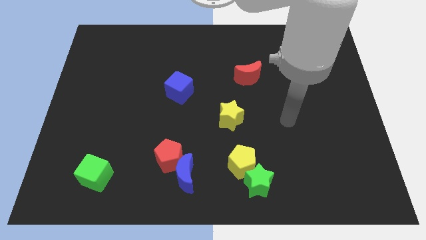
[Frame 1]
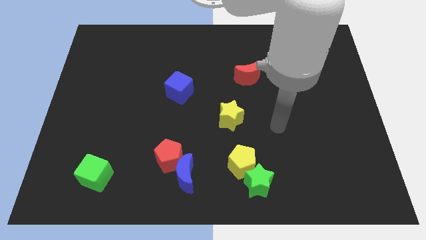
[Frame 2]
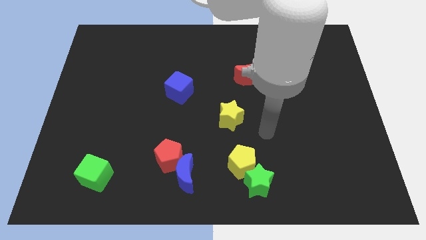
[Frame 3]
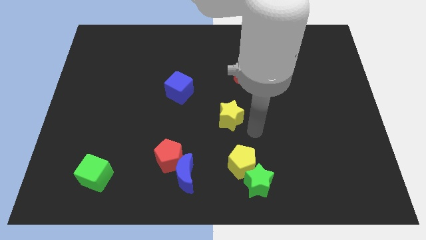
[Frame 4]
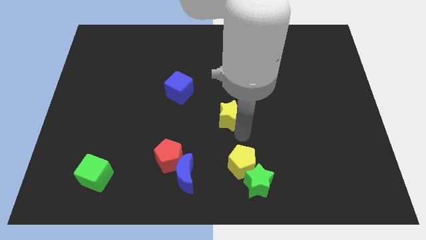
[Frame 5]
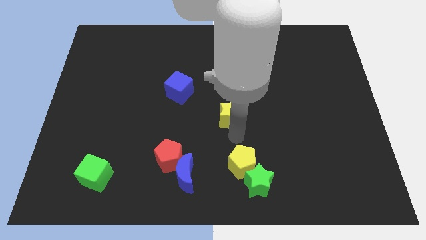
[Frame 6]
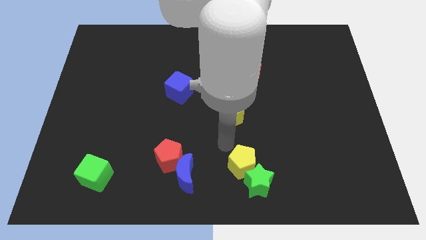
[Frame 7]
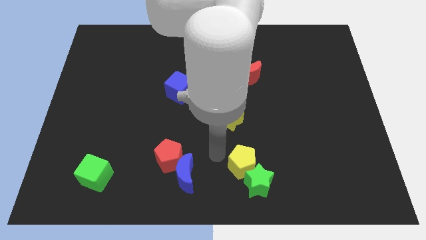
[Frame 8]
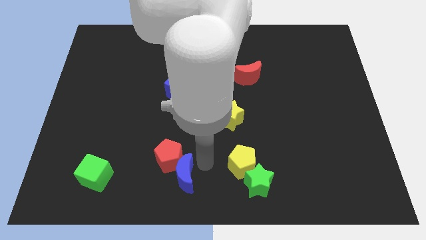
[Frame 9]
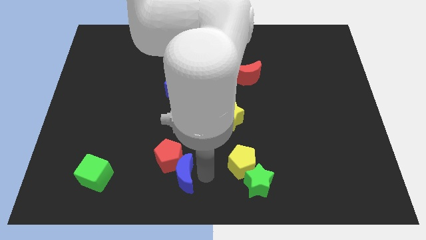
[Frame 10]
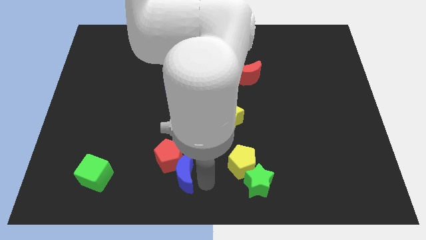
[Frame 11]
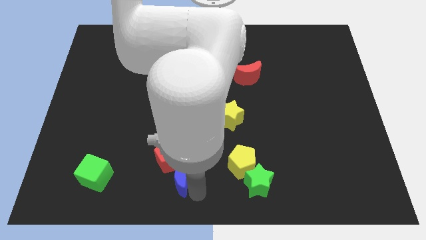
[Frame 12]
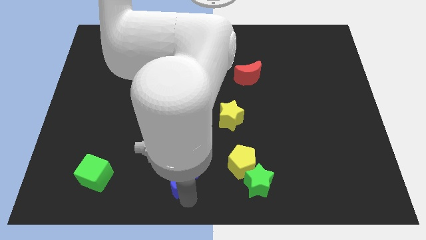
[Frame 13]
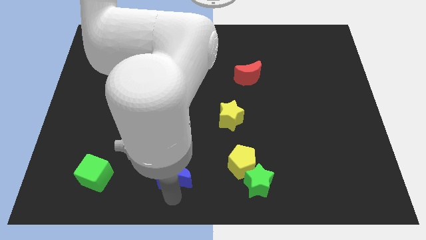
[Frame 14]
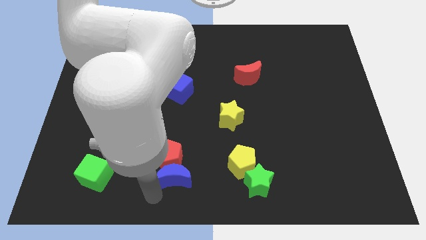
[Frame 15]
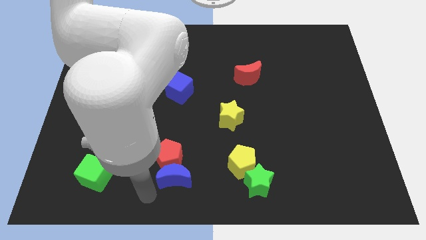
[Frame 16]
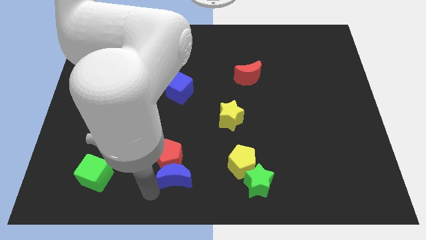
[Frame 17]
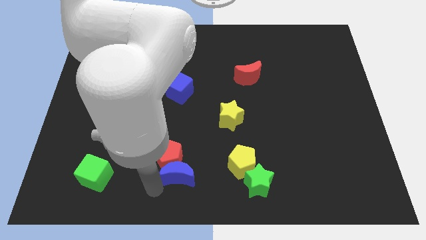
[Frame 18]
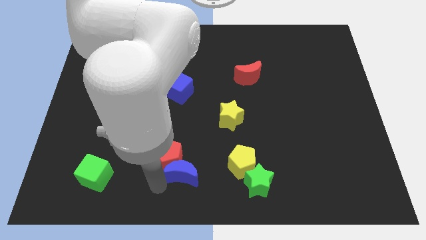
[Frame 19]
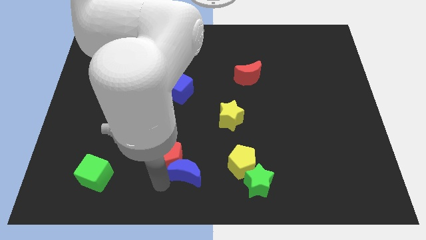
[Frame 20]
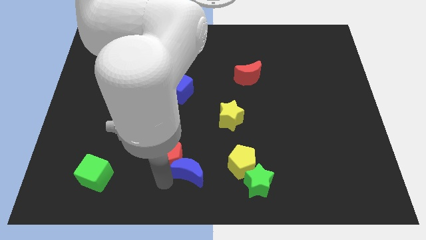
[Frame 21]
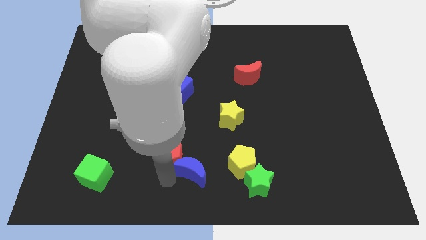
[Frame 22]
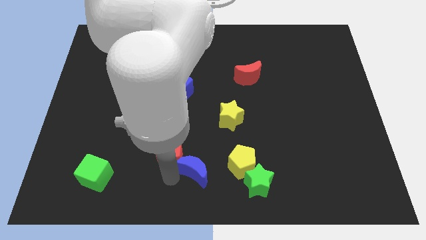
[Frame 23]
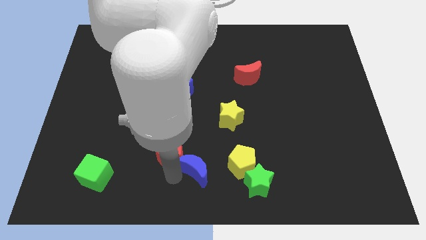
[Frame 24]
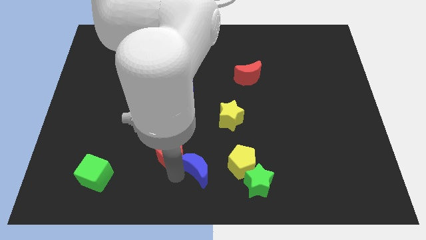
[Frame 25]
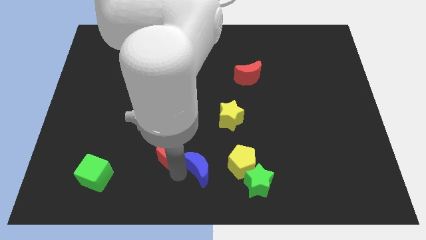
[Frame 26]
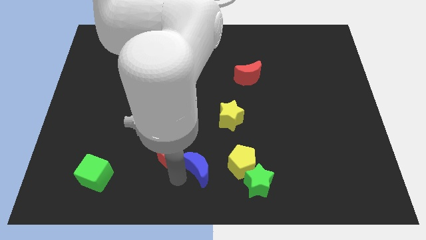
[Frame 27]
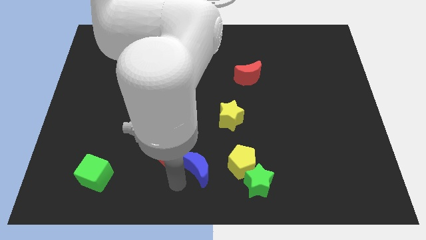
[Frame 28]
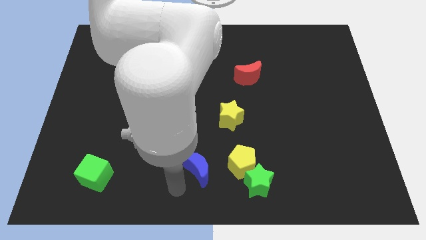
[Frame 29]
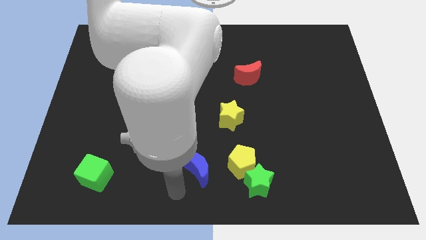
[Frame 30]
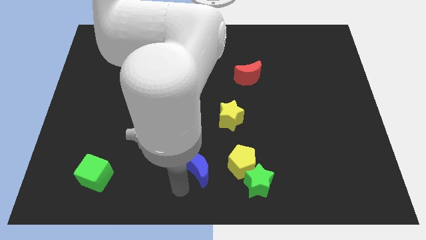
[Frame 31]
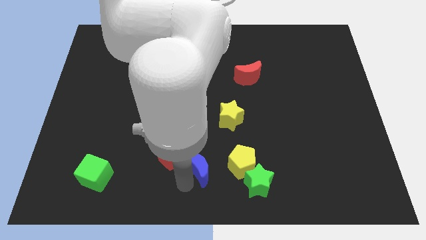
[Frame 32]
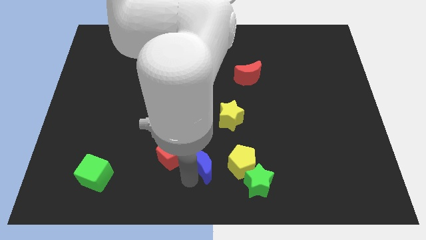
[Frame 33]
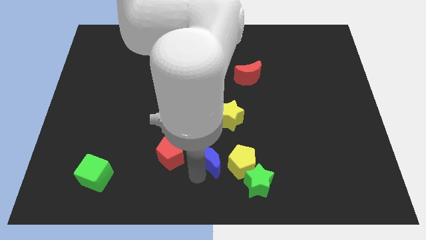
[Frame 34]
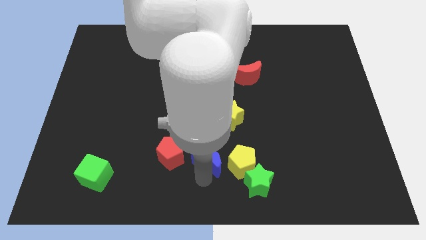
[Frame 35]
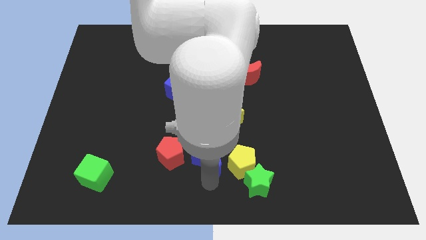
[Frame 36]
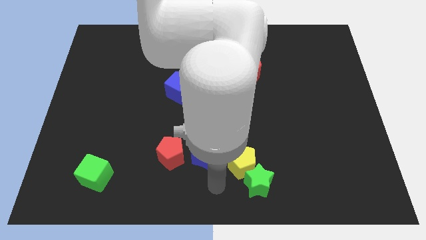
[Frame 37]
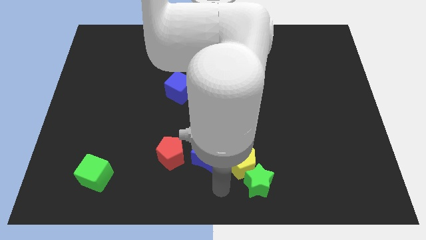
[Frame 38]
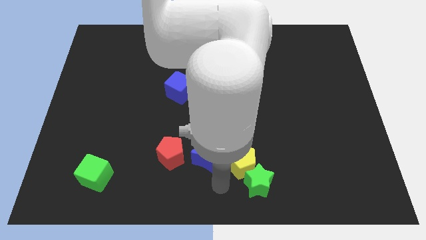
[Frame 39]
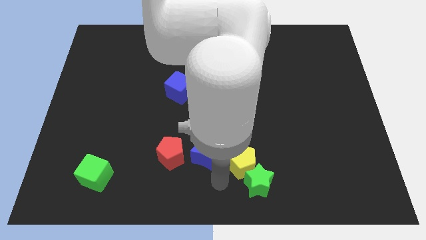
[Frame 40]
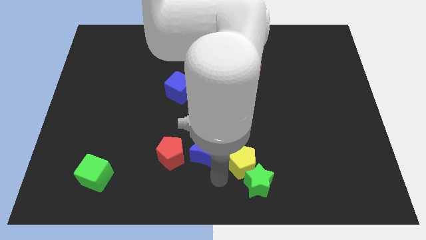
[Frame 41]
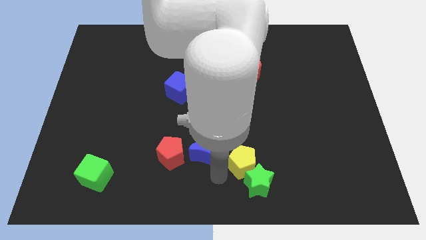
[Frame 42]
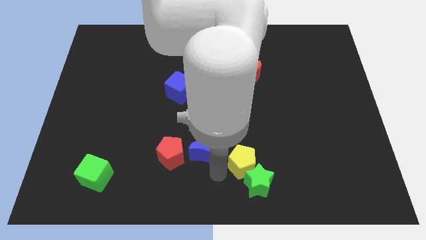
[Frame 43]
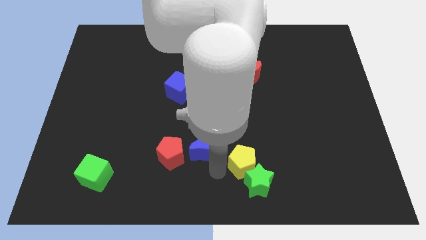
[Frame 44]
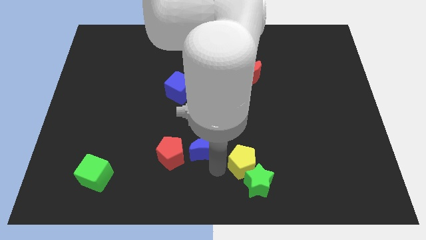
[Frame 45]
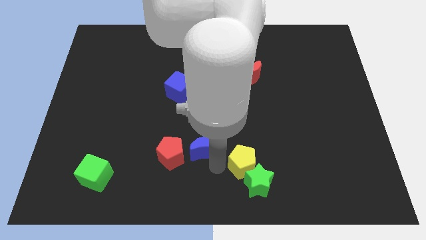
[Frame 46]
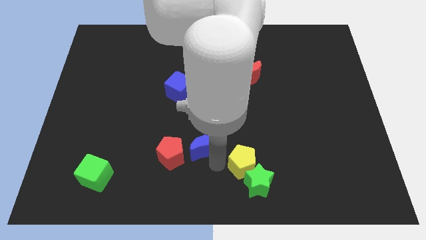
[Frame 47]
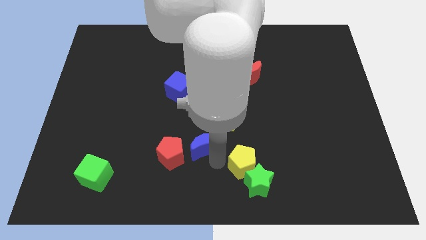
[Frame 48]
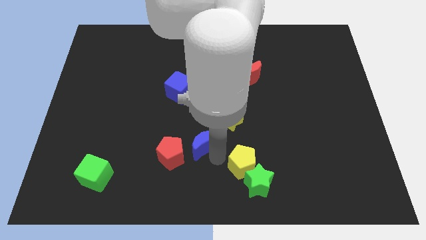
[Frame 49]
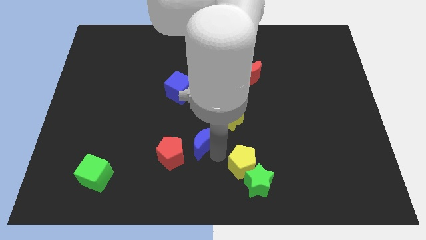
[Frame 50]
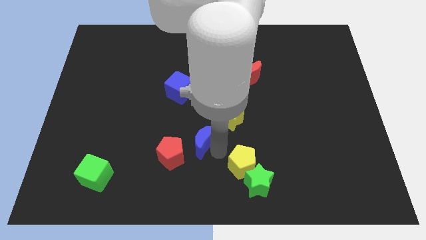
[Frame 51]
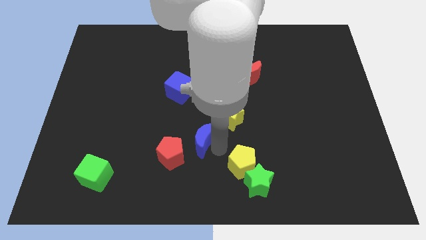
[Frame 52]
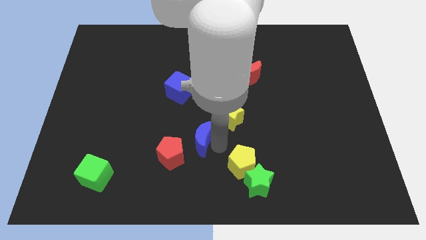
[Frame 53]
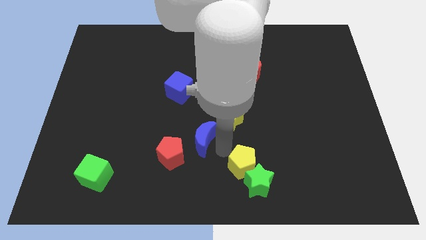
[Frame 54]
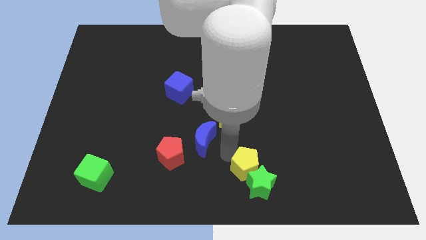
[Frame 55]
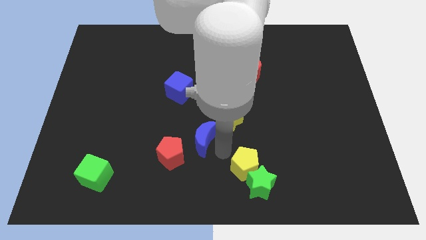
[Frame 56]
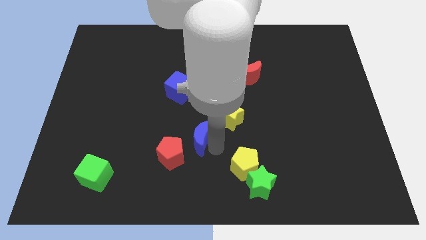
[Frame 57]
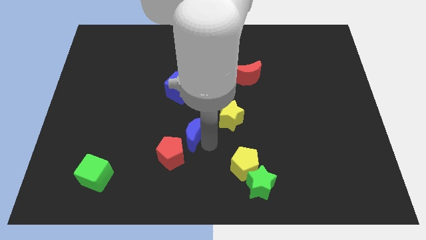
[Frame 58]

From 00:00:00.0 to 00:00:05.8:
move the blue moon below the blue cube
